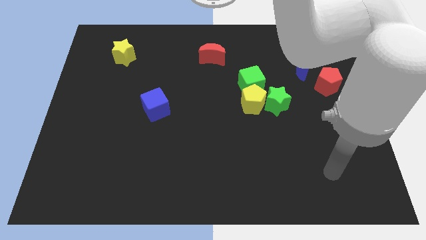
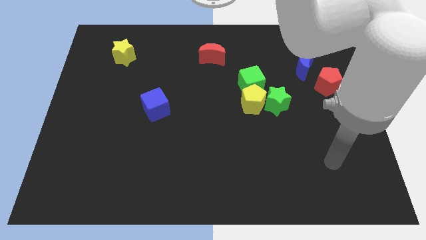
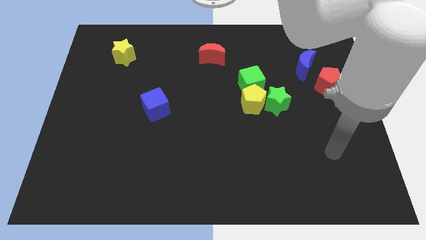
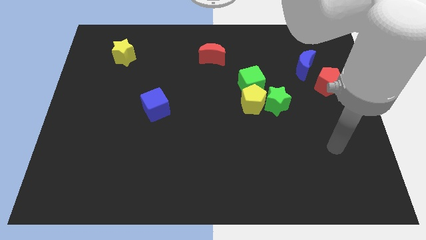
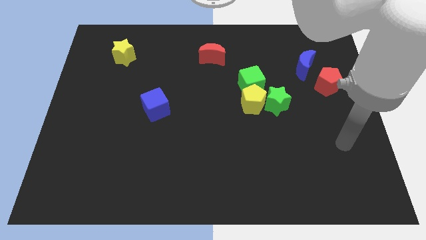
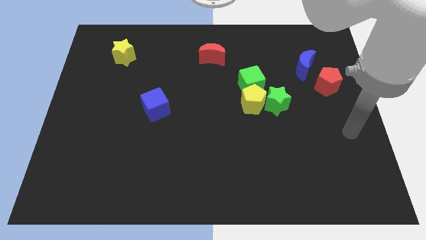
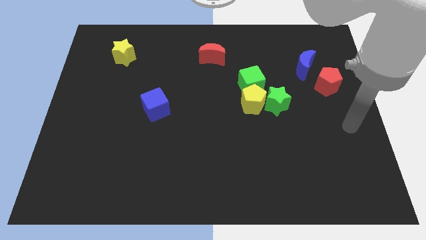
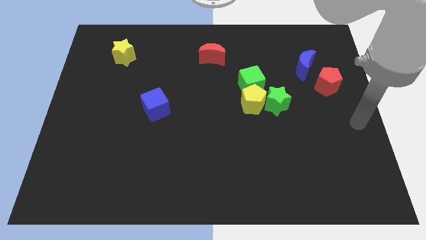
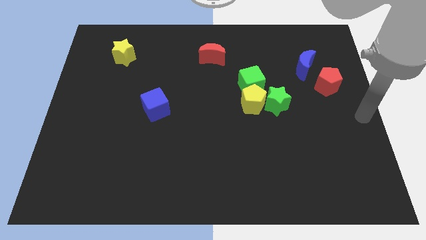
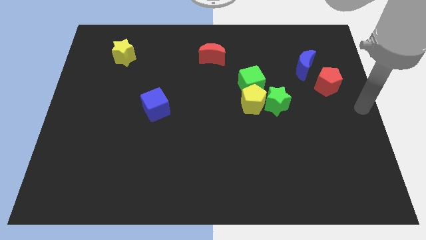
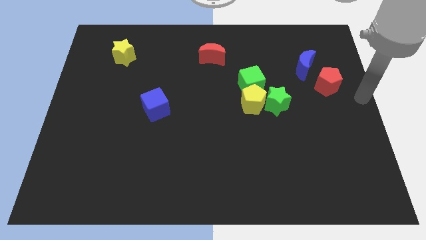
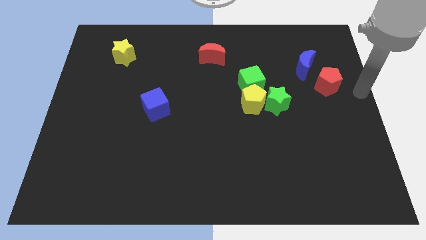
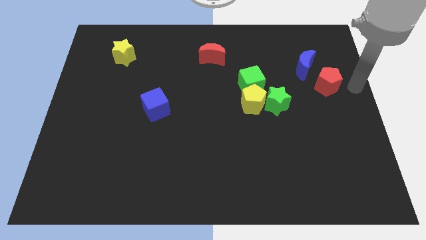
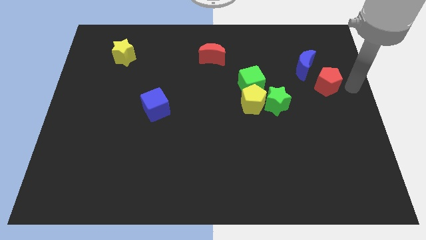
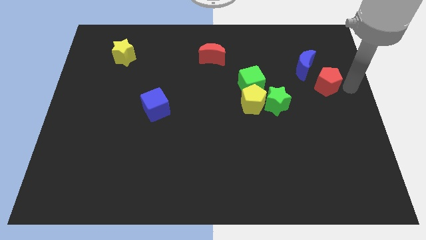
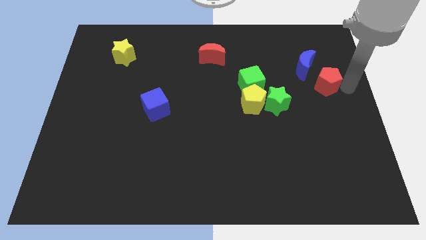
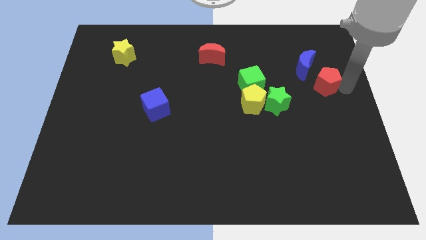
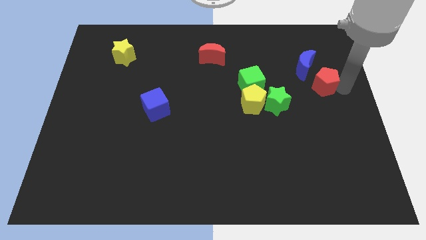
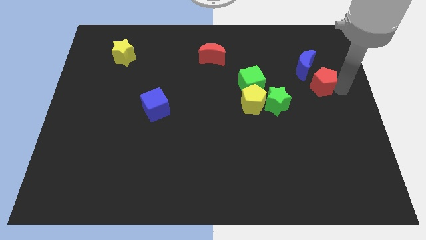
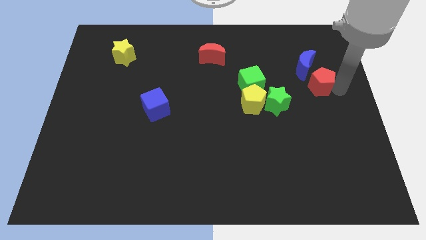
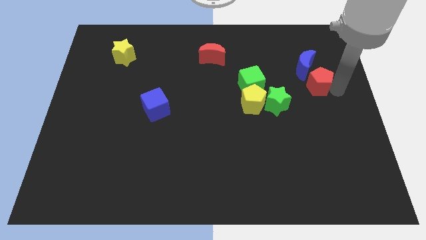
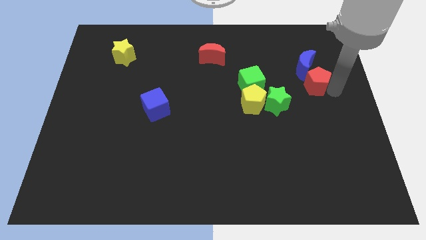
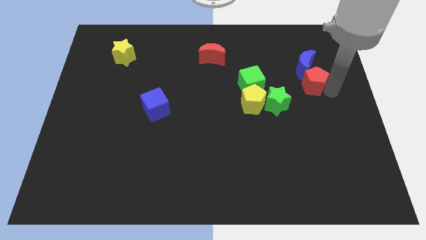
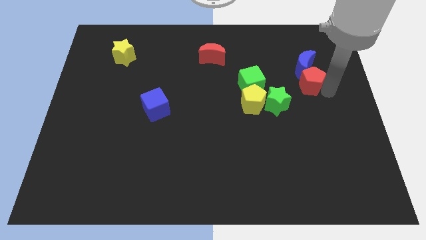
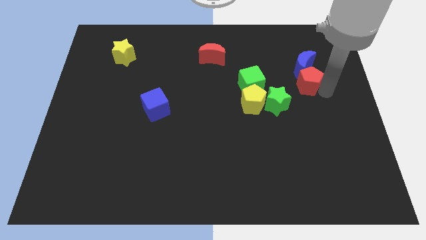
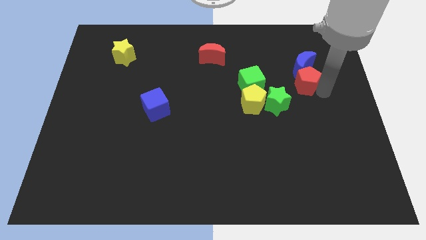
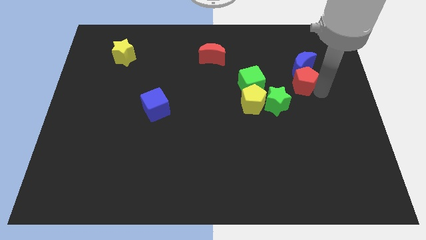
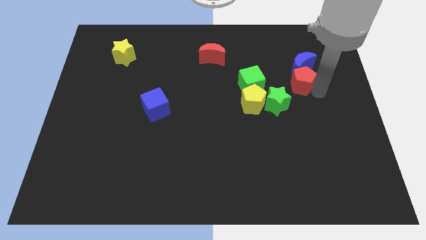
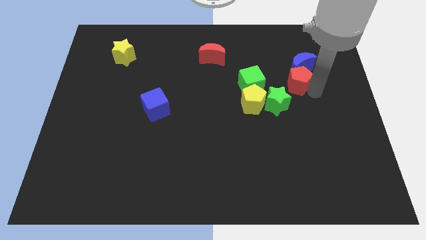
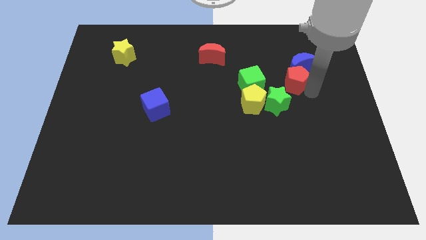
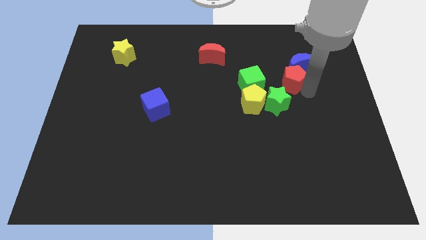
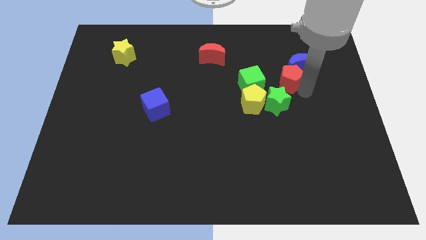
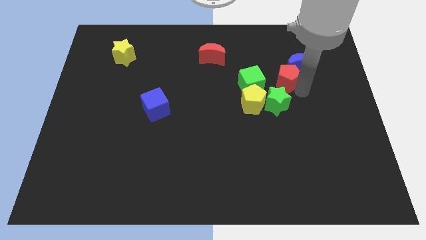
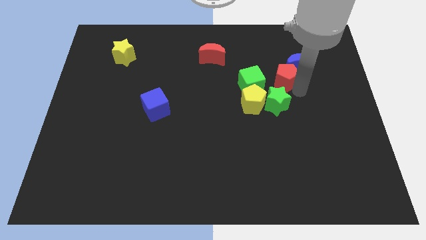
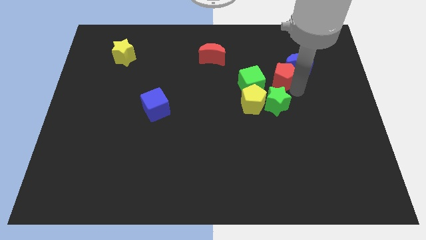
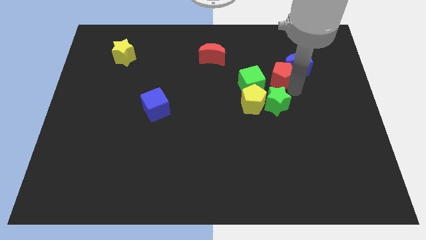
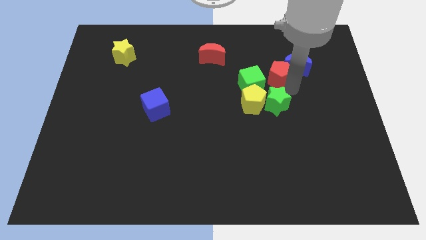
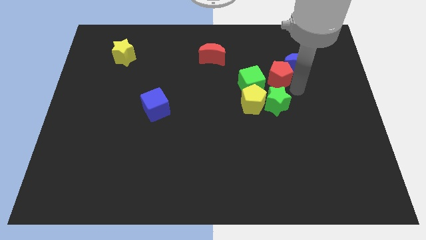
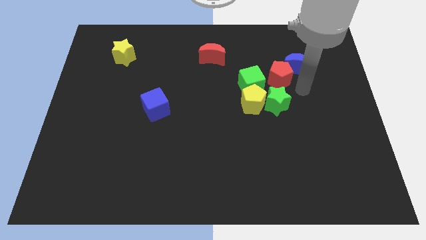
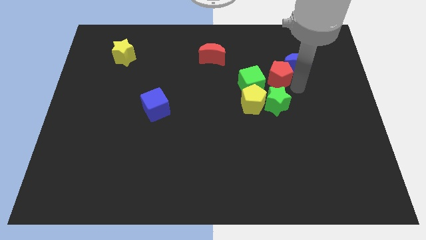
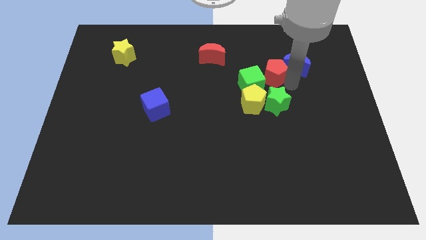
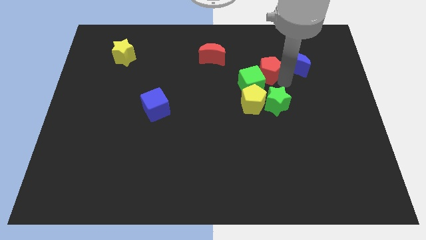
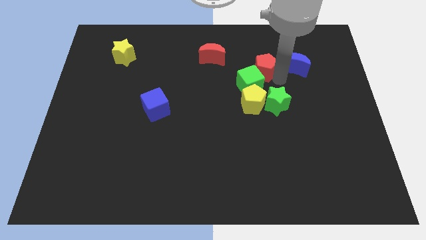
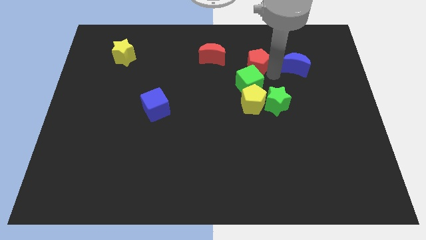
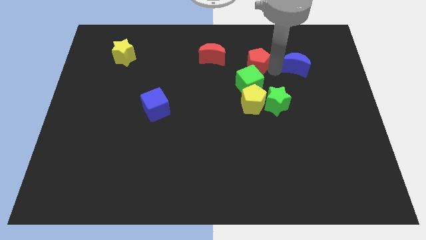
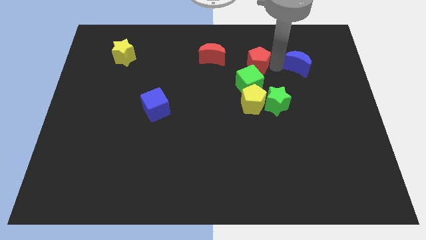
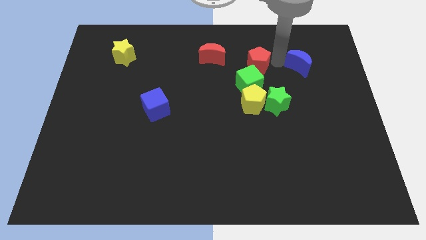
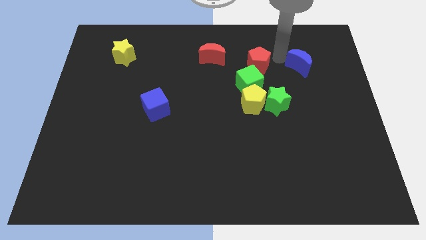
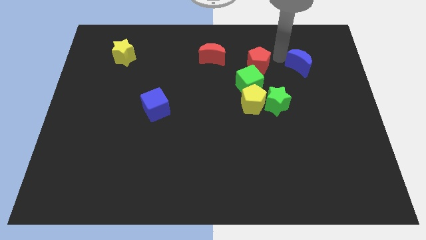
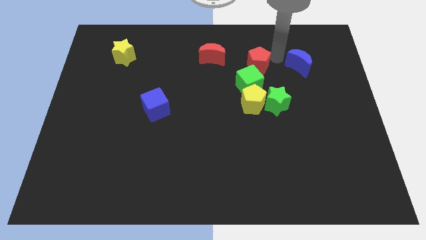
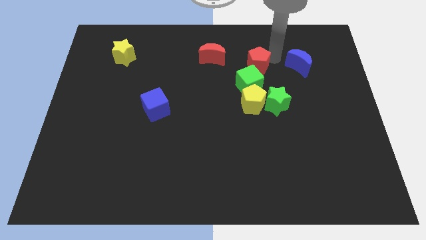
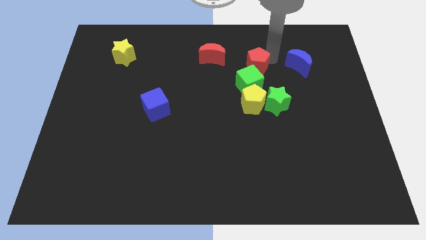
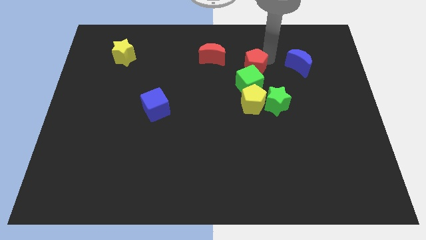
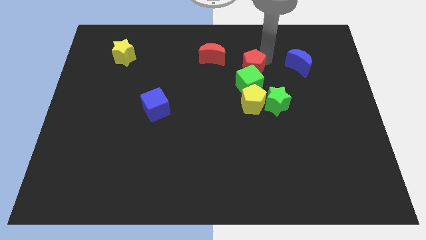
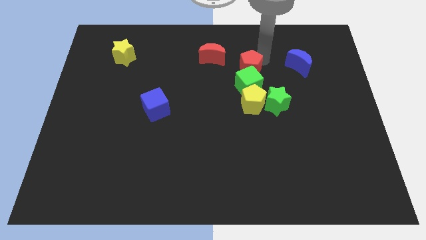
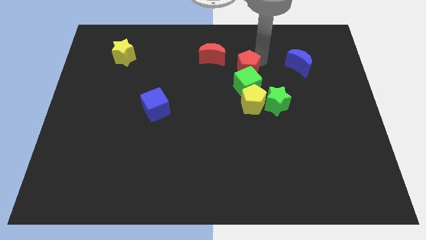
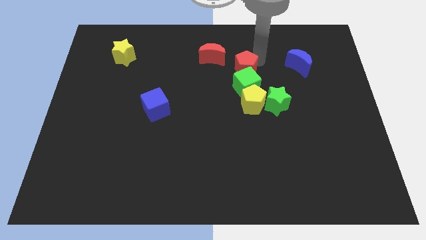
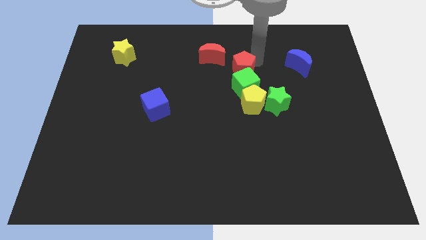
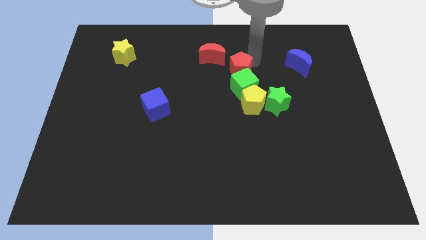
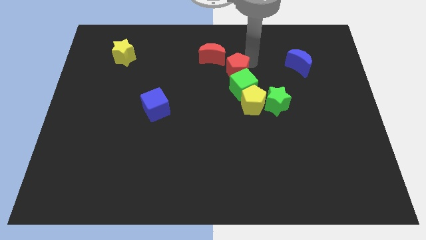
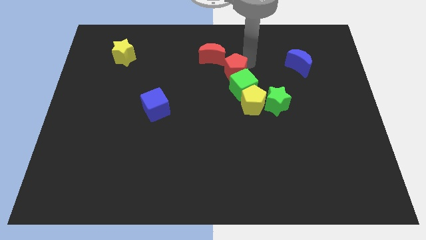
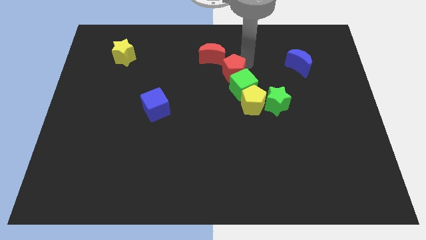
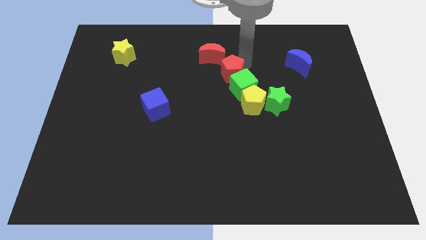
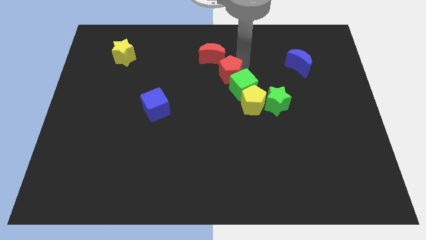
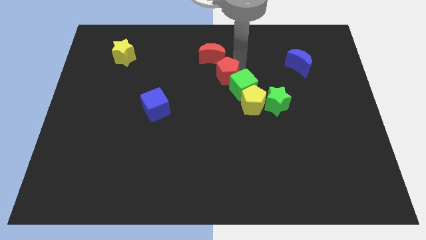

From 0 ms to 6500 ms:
push the red pentagon just left of the green cube
